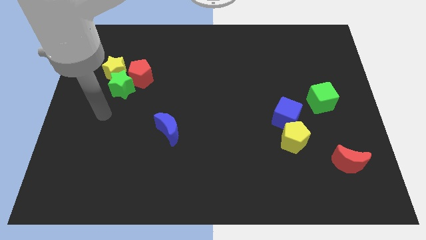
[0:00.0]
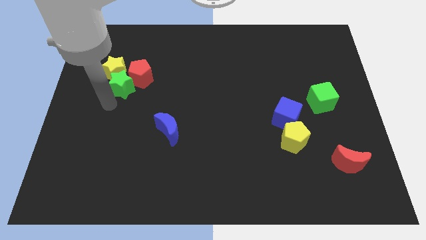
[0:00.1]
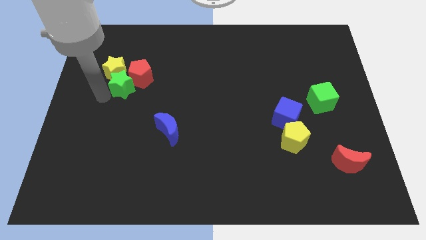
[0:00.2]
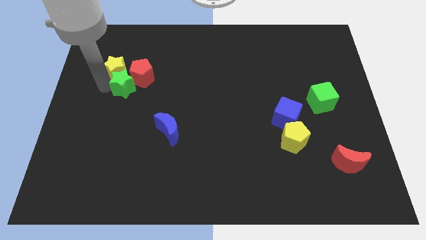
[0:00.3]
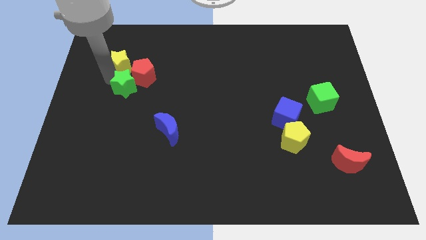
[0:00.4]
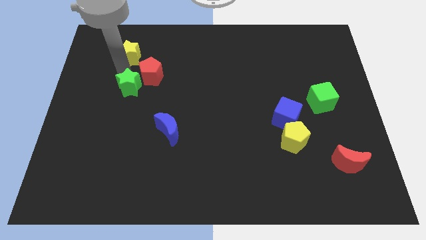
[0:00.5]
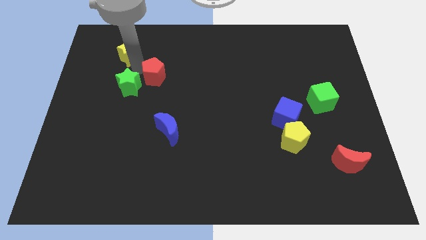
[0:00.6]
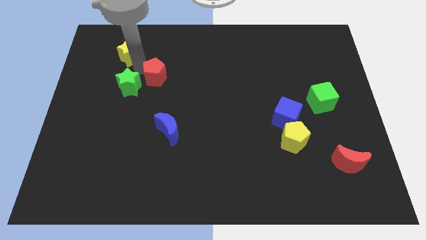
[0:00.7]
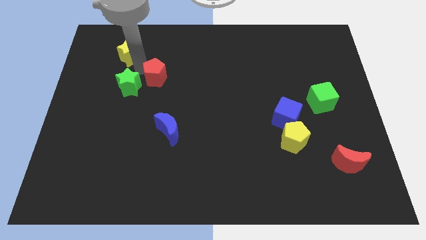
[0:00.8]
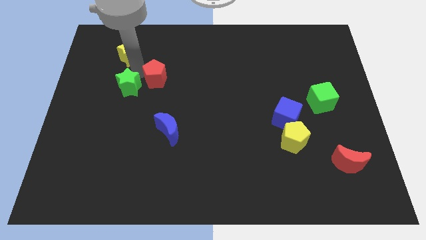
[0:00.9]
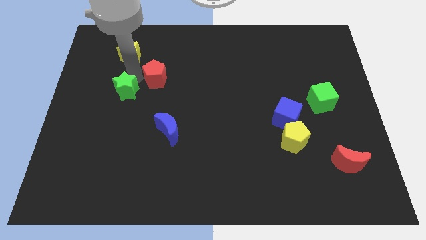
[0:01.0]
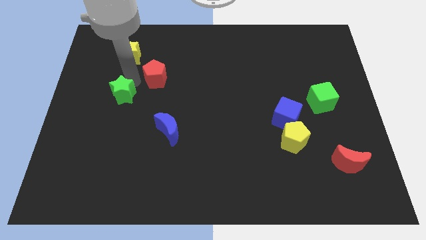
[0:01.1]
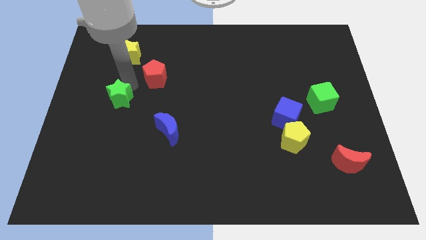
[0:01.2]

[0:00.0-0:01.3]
move the green star away from the red pentagon and yellow star

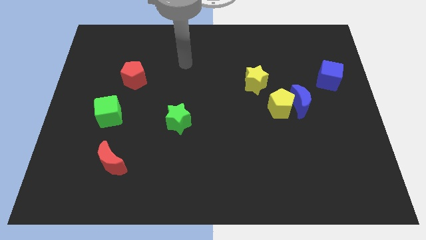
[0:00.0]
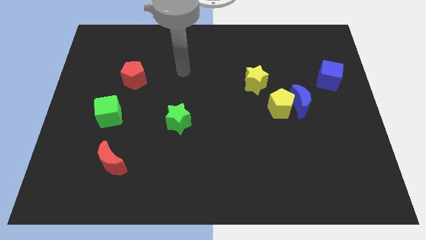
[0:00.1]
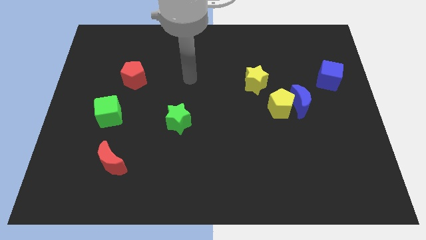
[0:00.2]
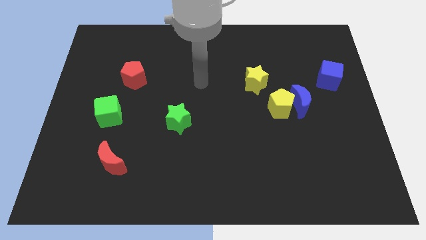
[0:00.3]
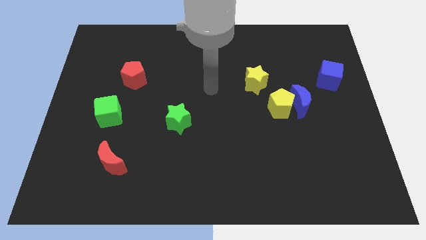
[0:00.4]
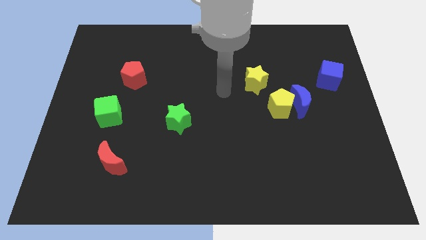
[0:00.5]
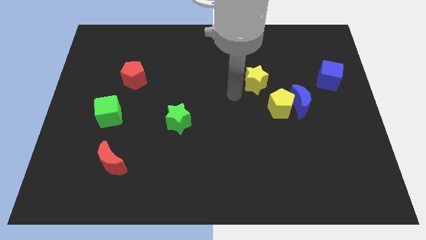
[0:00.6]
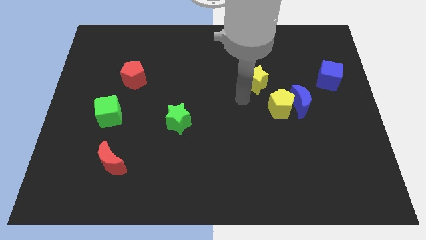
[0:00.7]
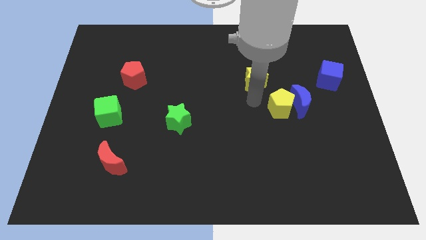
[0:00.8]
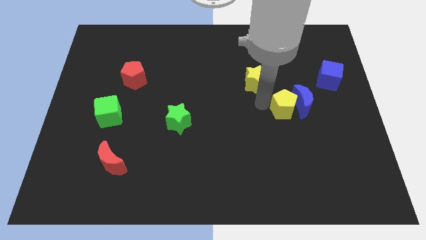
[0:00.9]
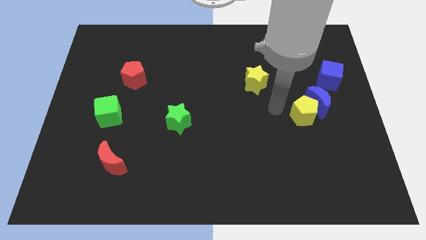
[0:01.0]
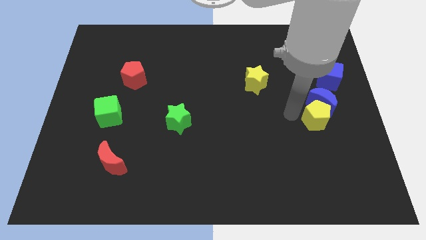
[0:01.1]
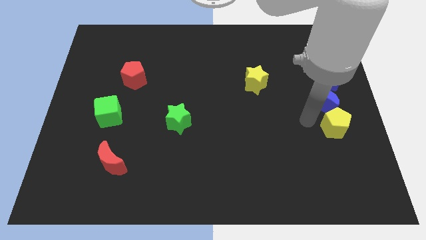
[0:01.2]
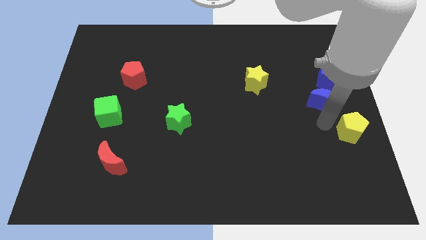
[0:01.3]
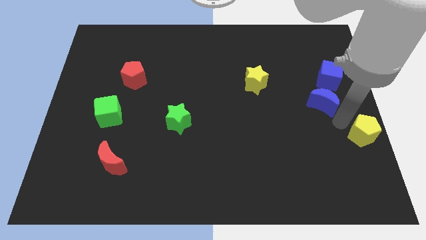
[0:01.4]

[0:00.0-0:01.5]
pull the blue moon apart from the yellow pentagon

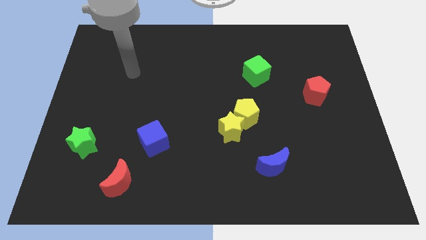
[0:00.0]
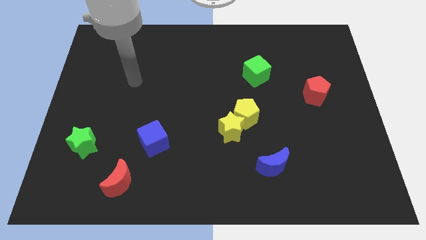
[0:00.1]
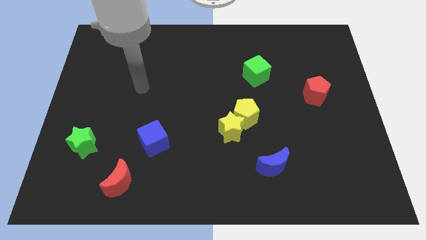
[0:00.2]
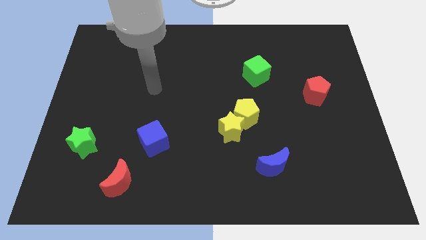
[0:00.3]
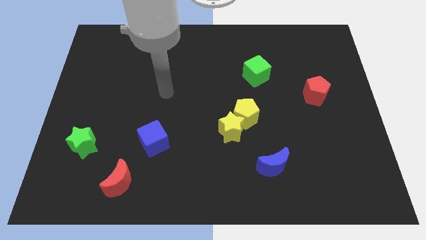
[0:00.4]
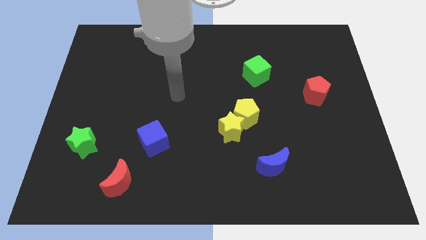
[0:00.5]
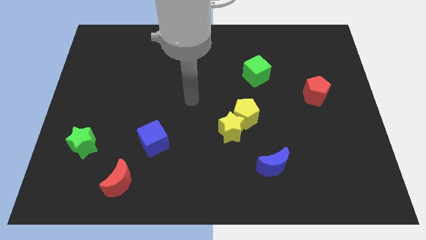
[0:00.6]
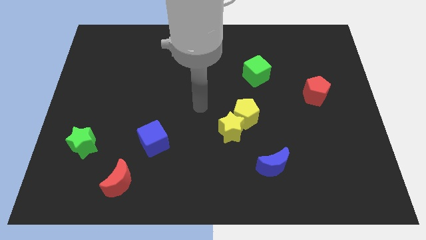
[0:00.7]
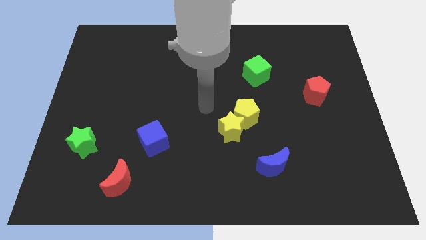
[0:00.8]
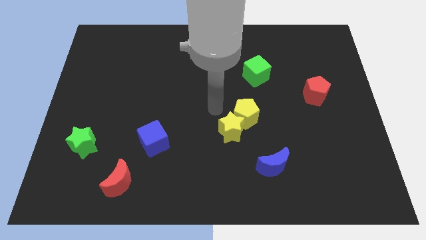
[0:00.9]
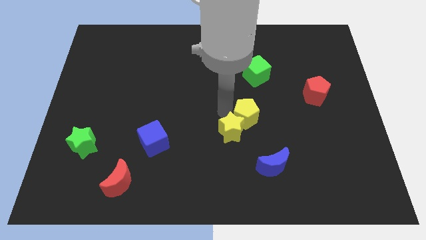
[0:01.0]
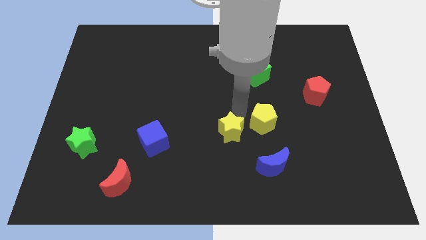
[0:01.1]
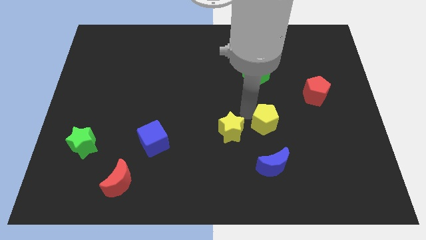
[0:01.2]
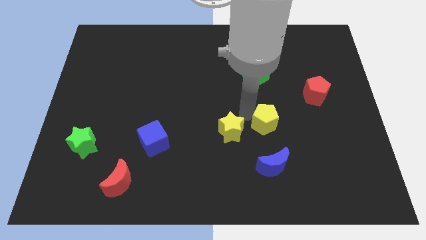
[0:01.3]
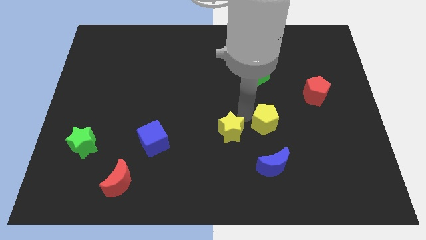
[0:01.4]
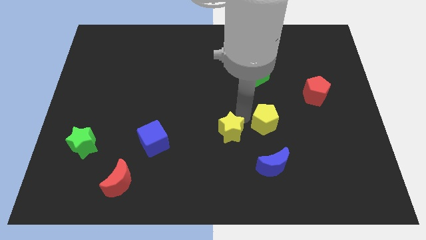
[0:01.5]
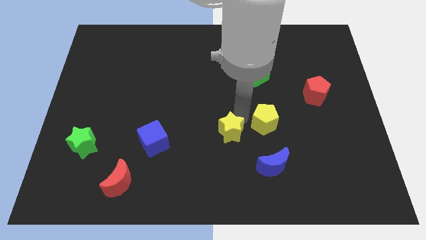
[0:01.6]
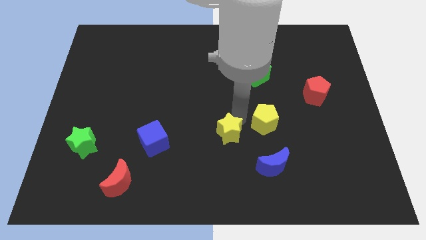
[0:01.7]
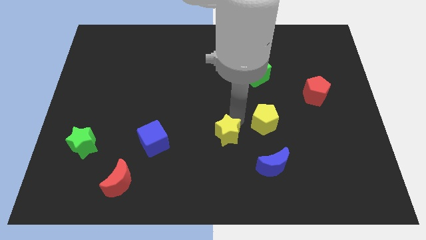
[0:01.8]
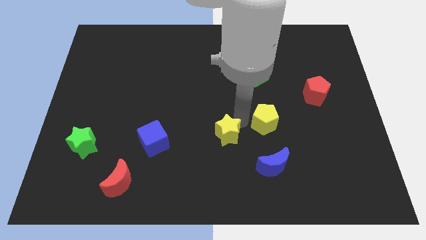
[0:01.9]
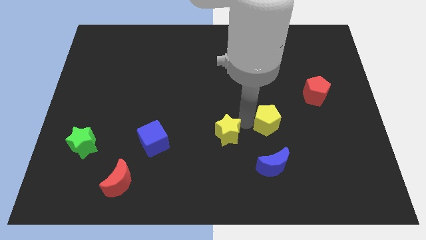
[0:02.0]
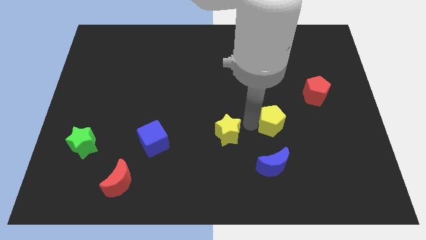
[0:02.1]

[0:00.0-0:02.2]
pull the yellow star apart from the yellow pentagon

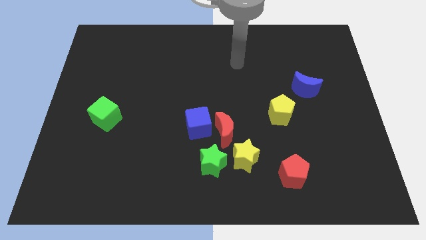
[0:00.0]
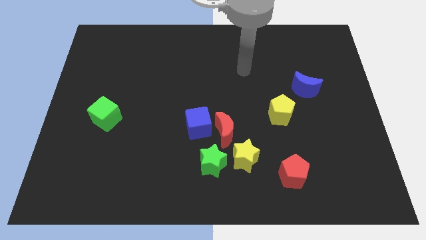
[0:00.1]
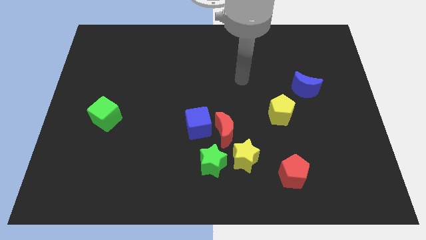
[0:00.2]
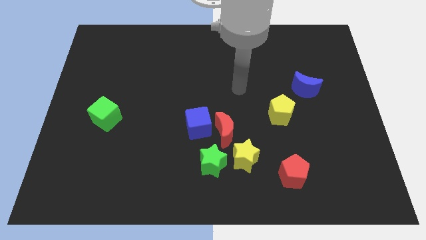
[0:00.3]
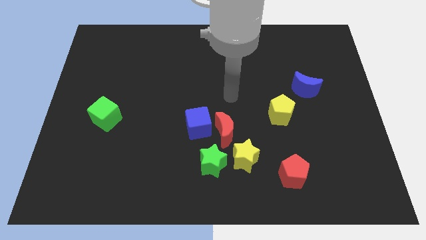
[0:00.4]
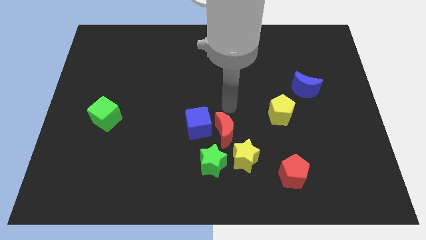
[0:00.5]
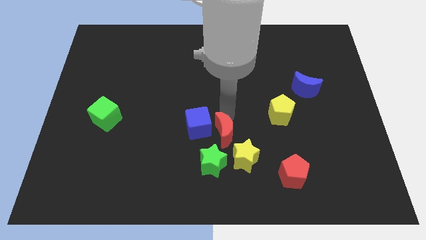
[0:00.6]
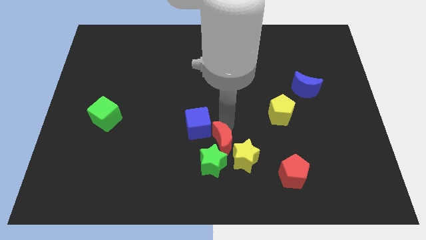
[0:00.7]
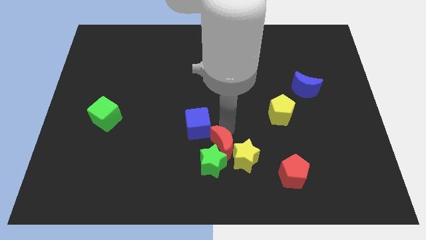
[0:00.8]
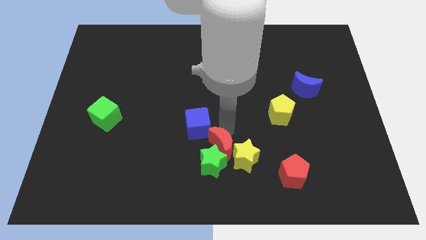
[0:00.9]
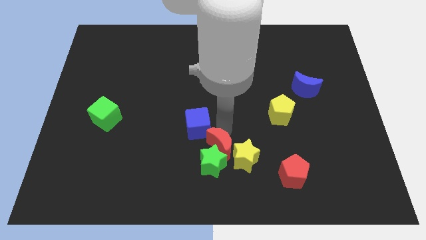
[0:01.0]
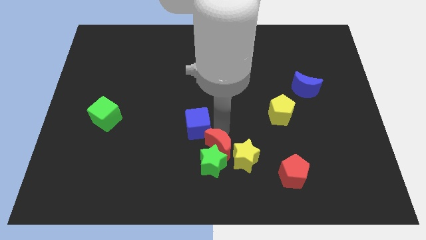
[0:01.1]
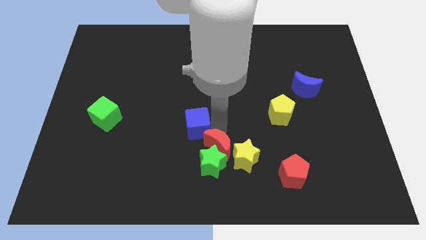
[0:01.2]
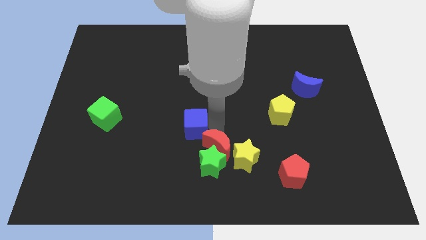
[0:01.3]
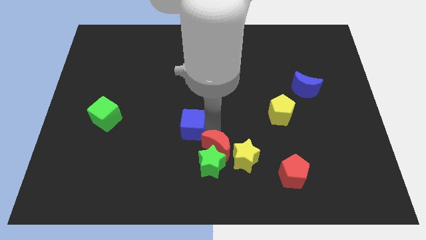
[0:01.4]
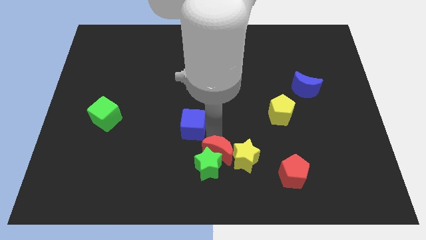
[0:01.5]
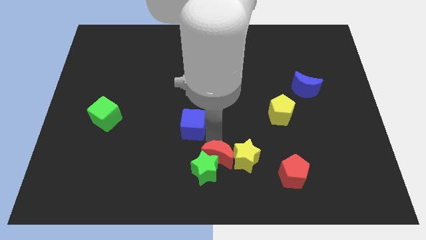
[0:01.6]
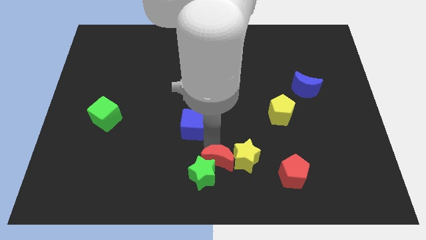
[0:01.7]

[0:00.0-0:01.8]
move the blue cube away from the red moon

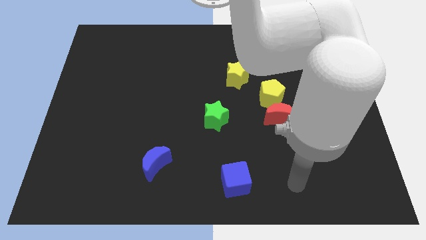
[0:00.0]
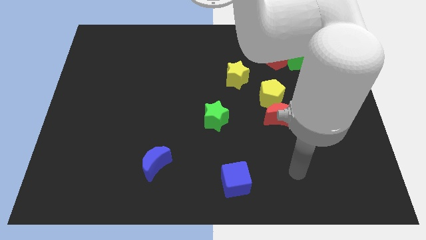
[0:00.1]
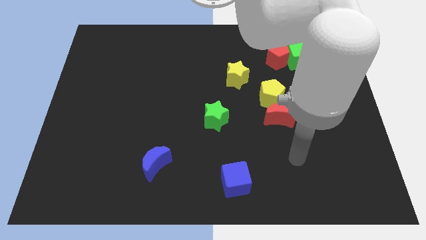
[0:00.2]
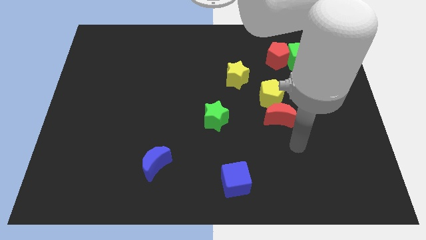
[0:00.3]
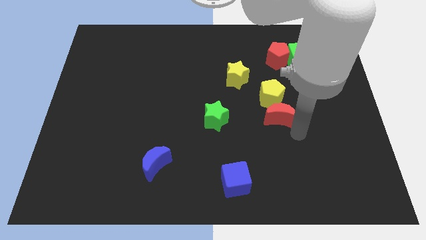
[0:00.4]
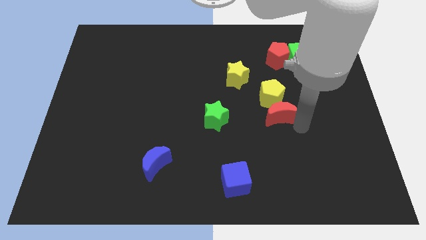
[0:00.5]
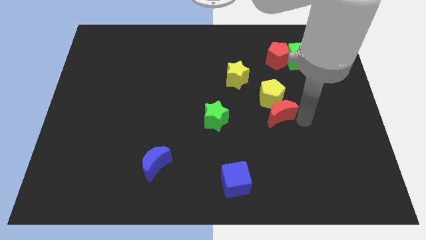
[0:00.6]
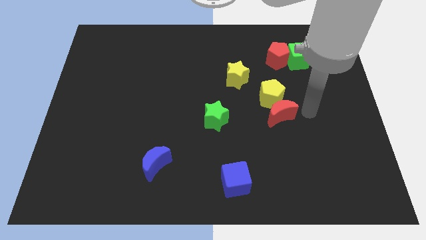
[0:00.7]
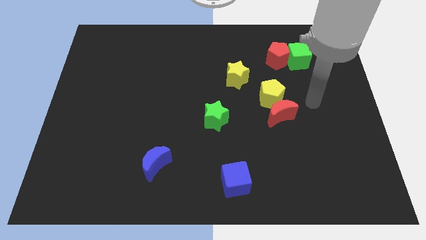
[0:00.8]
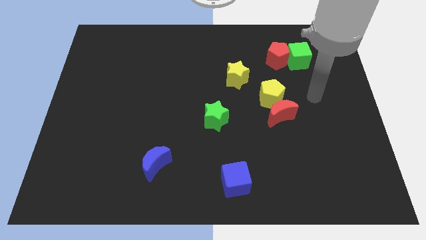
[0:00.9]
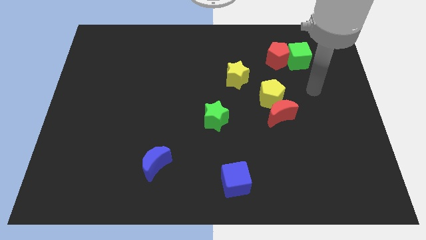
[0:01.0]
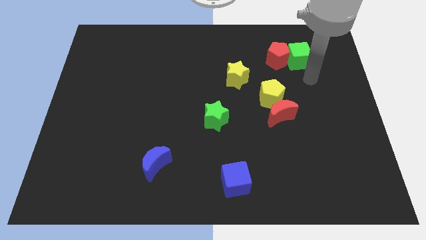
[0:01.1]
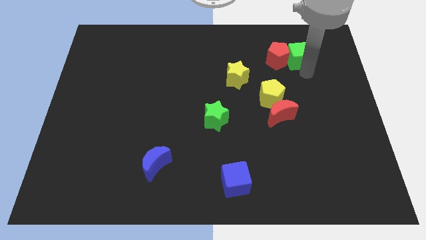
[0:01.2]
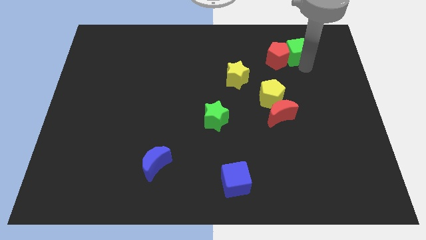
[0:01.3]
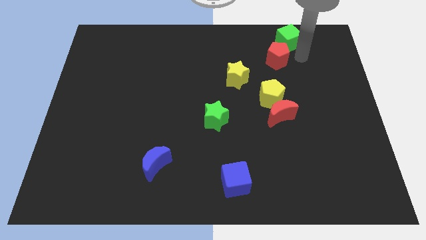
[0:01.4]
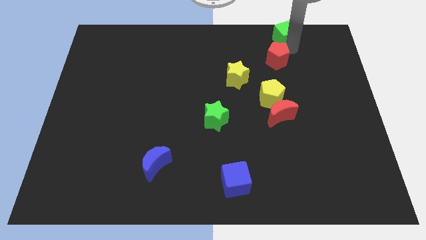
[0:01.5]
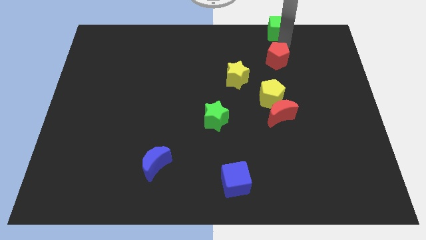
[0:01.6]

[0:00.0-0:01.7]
separate the red pentagon from the green cube

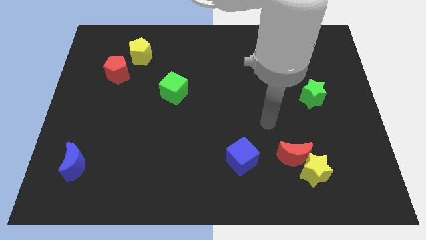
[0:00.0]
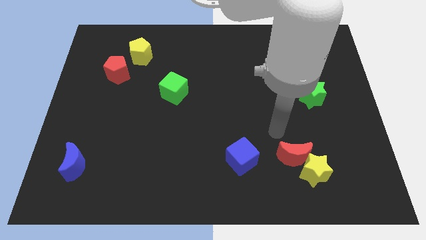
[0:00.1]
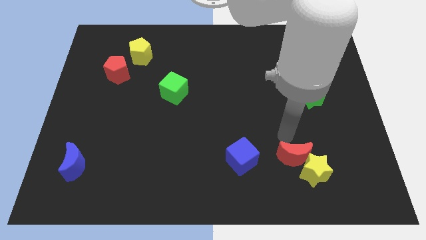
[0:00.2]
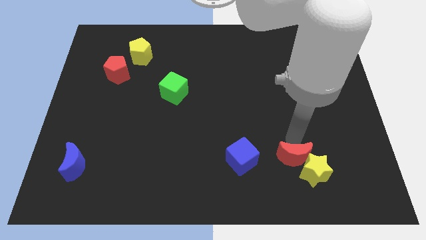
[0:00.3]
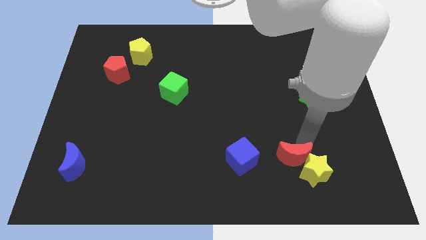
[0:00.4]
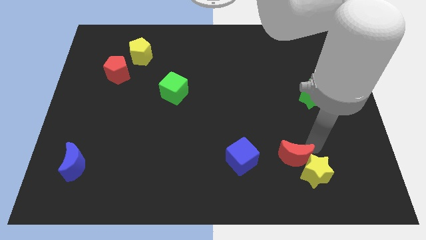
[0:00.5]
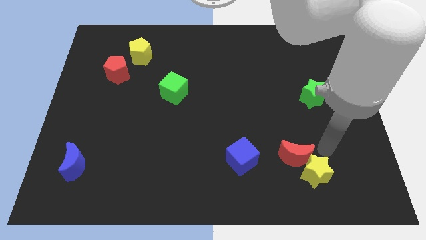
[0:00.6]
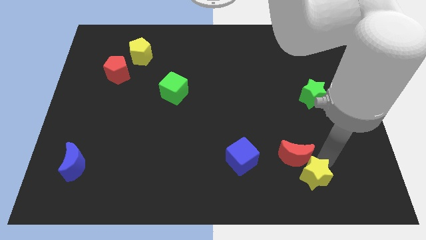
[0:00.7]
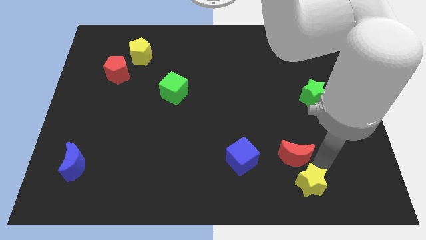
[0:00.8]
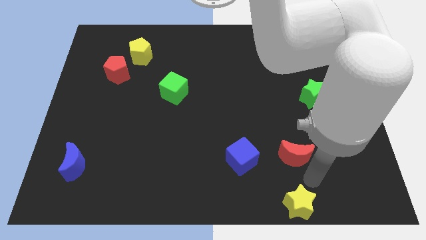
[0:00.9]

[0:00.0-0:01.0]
pull the red moon apart from the yellow star
